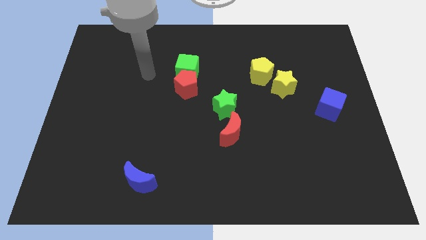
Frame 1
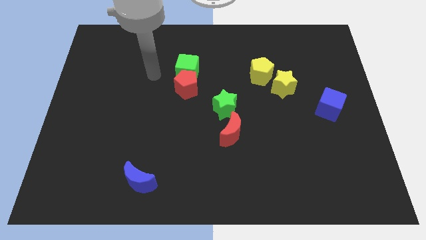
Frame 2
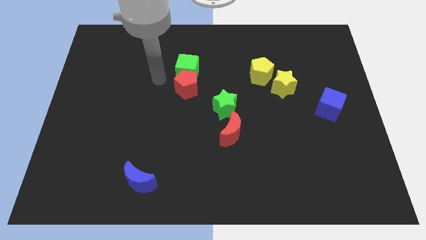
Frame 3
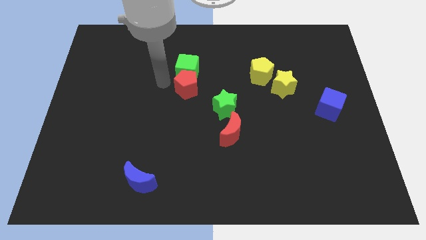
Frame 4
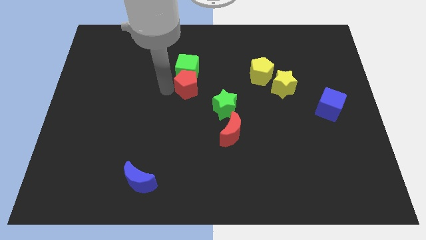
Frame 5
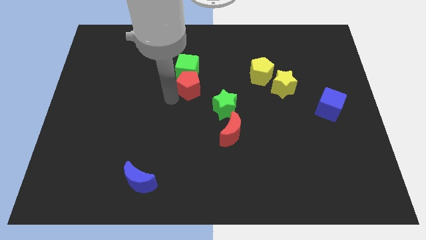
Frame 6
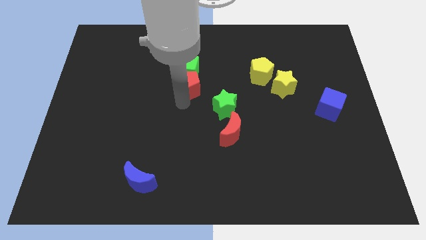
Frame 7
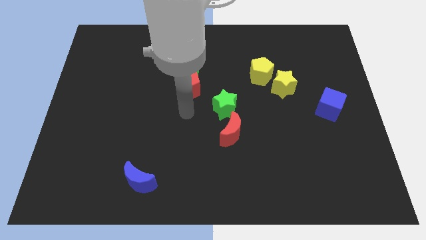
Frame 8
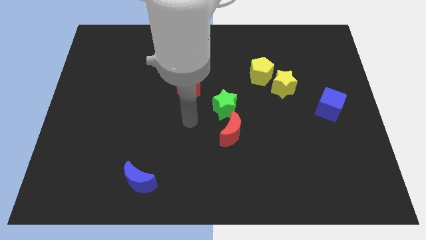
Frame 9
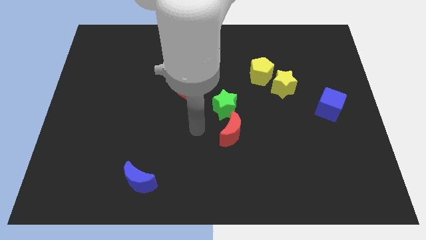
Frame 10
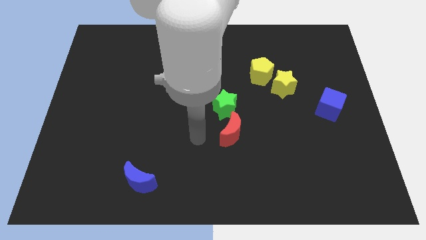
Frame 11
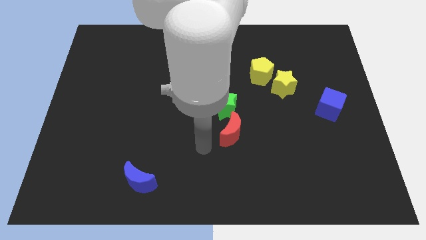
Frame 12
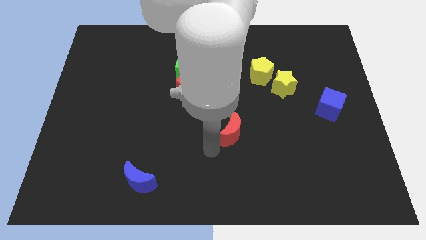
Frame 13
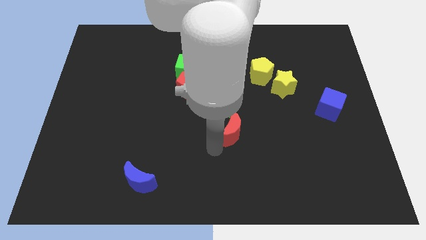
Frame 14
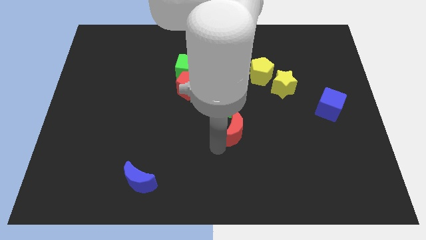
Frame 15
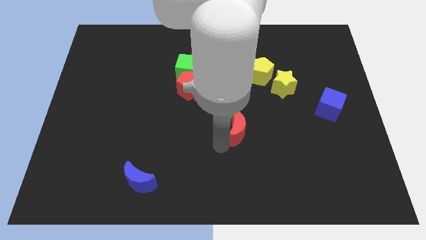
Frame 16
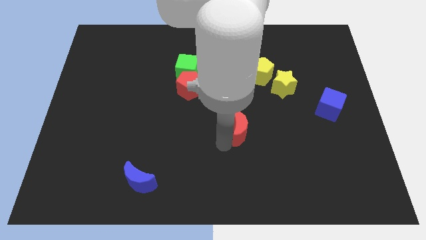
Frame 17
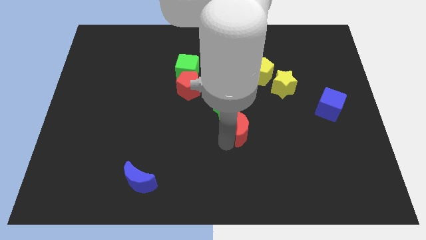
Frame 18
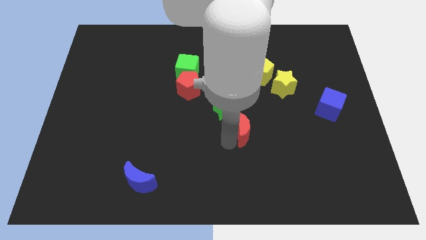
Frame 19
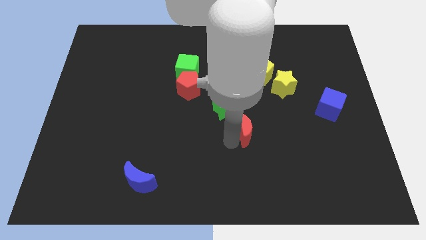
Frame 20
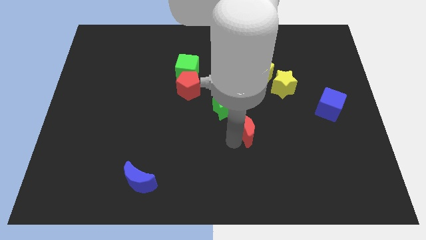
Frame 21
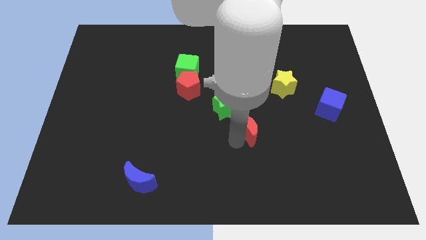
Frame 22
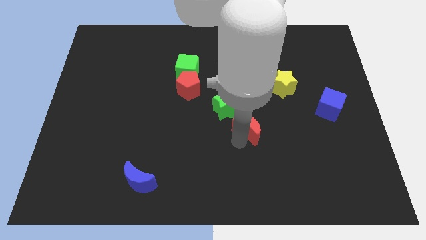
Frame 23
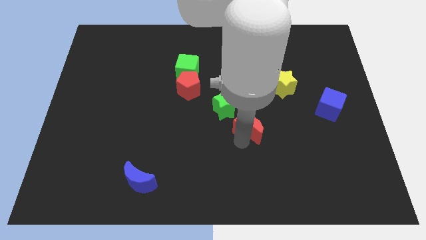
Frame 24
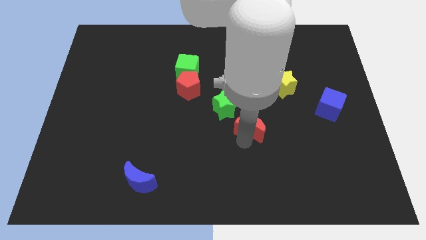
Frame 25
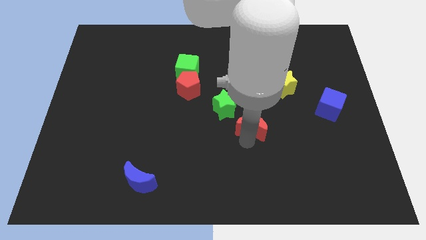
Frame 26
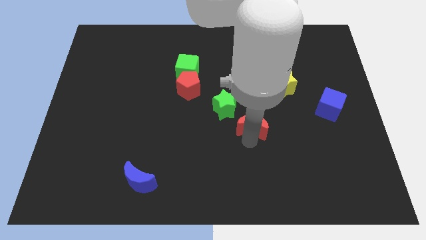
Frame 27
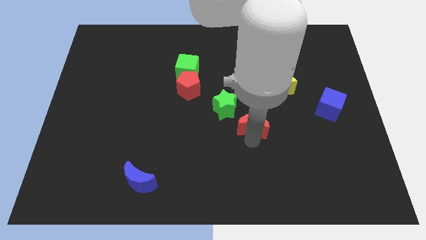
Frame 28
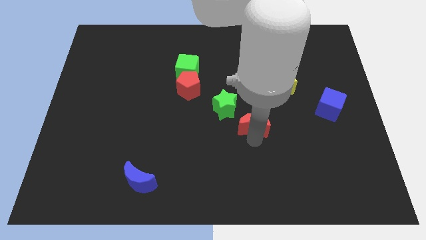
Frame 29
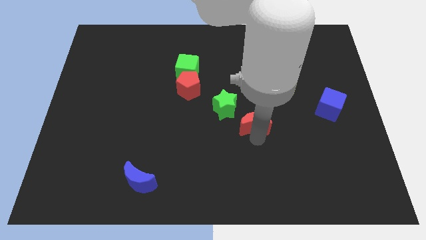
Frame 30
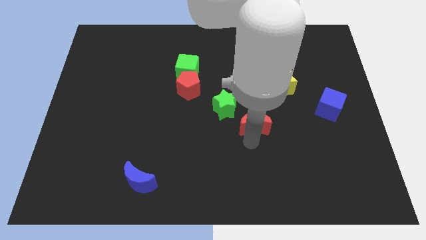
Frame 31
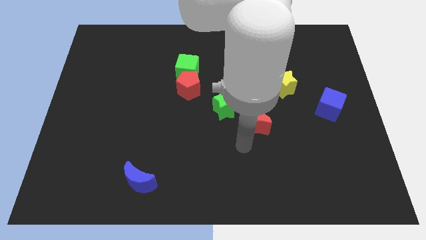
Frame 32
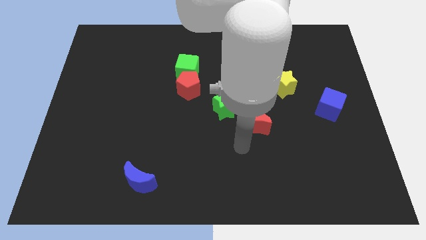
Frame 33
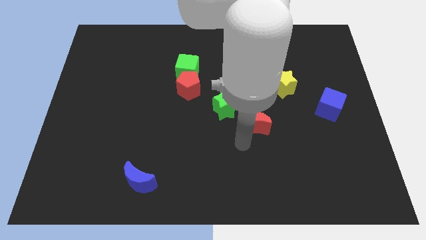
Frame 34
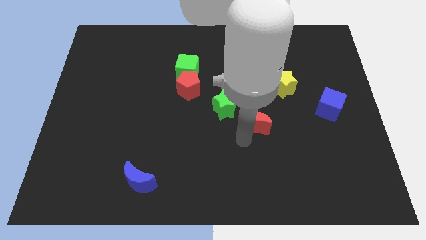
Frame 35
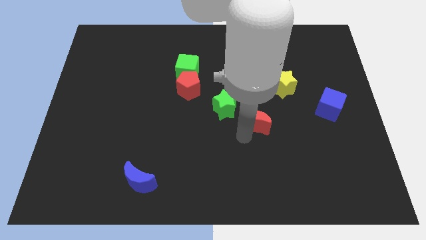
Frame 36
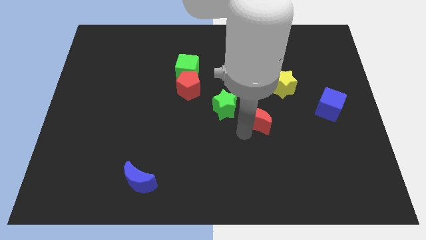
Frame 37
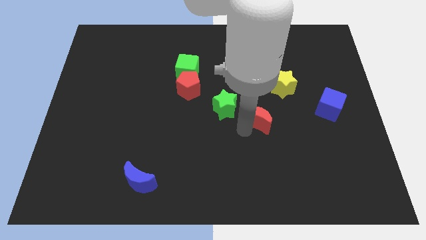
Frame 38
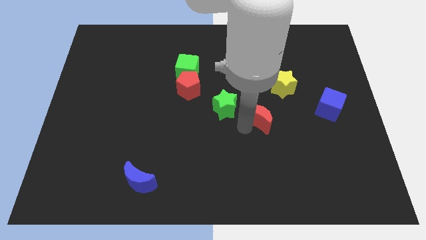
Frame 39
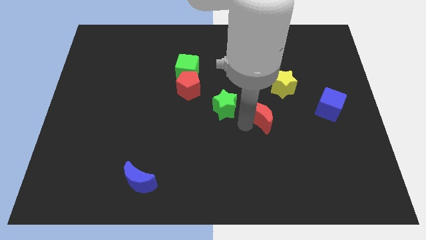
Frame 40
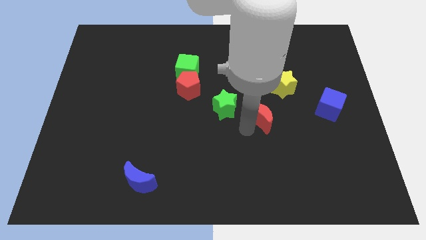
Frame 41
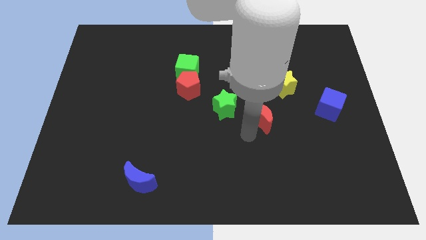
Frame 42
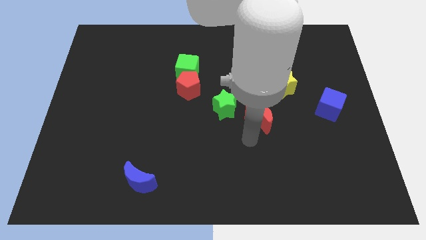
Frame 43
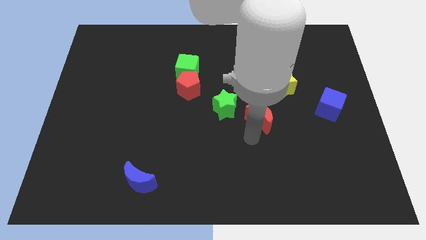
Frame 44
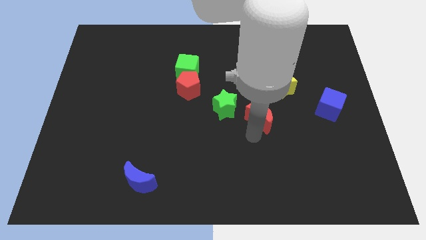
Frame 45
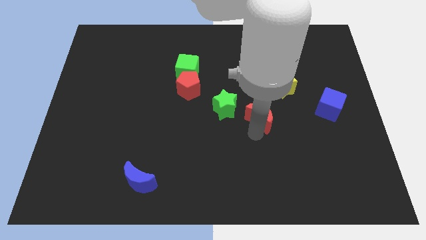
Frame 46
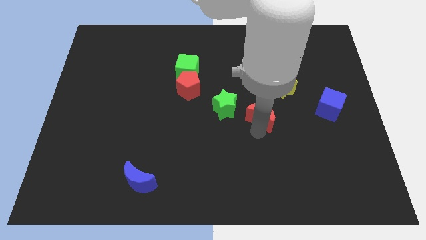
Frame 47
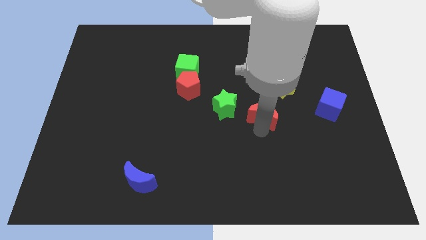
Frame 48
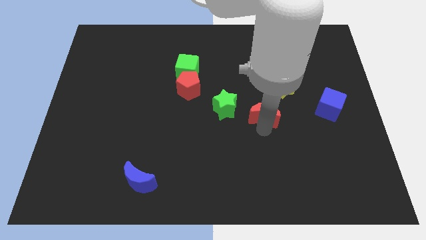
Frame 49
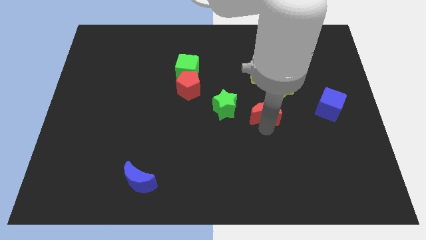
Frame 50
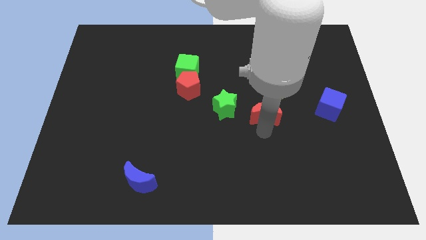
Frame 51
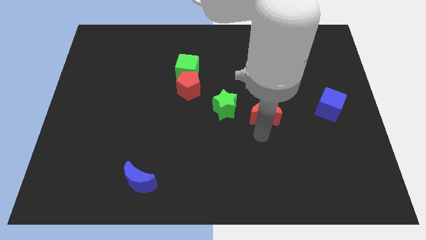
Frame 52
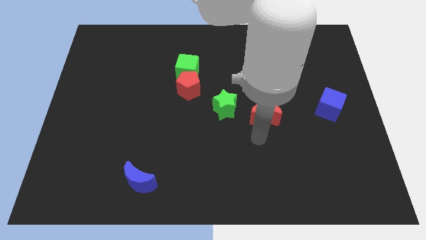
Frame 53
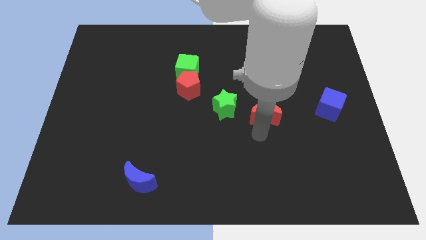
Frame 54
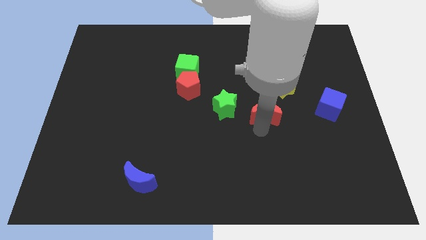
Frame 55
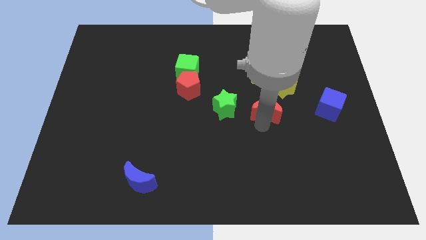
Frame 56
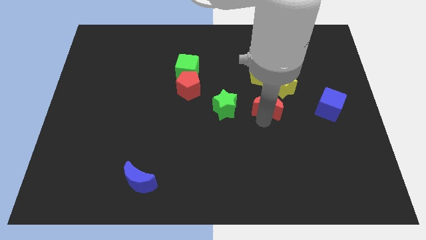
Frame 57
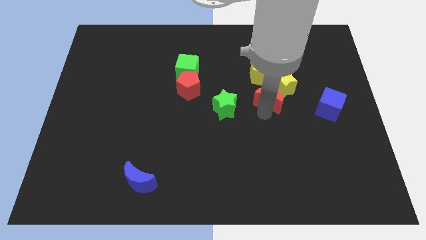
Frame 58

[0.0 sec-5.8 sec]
push the red moon close to the yellow star

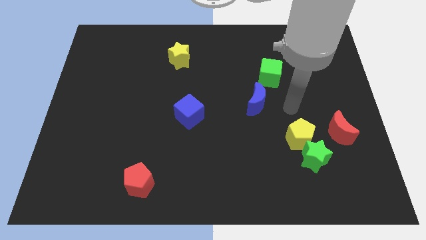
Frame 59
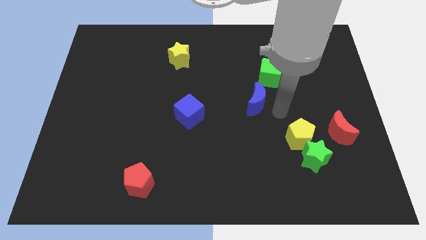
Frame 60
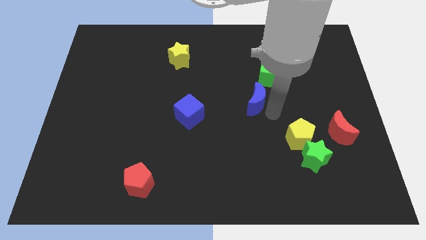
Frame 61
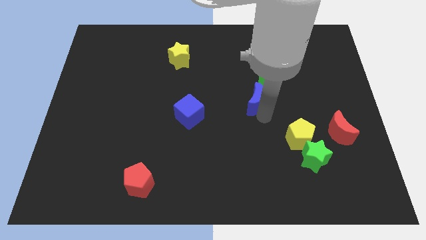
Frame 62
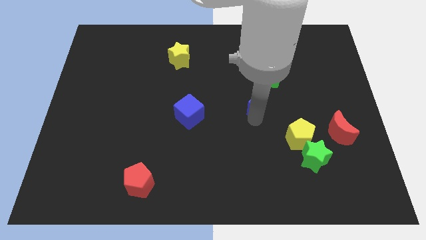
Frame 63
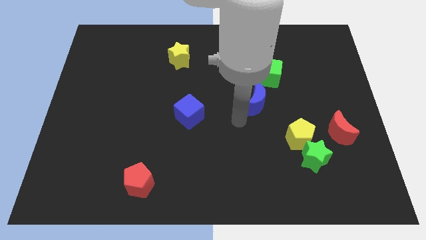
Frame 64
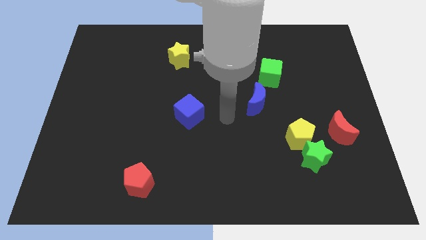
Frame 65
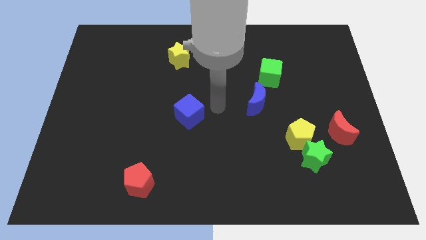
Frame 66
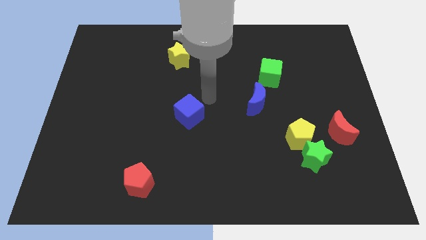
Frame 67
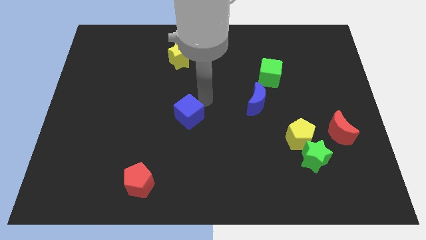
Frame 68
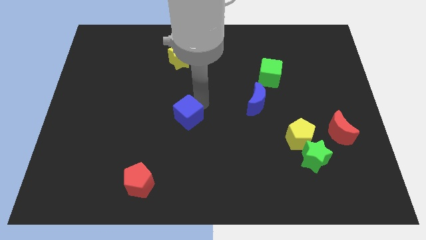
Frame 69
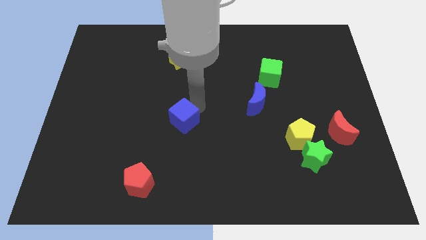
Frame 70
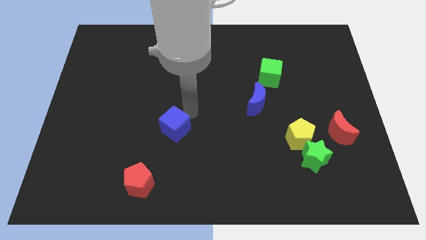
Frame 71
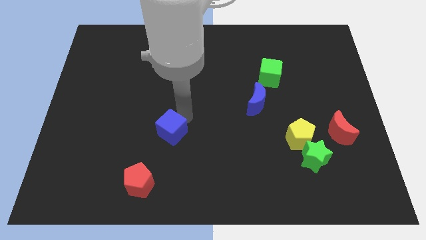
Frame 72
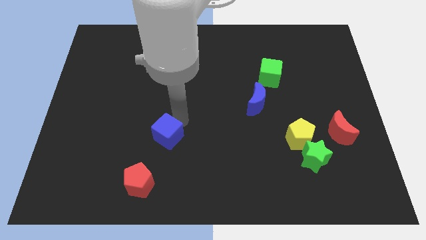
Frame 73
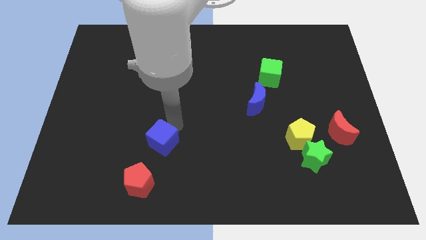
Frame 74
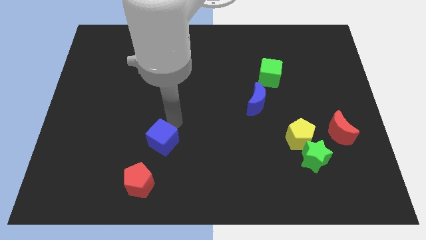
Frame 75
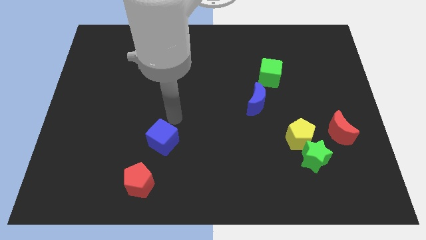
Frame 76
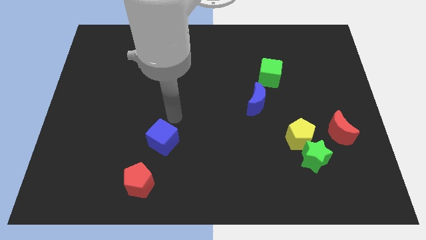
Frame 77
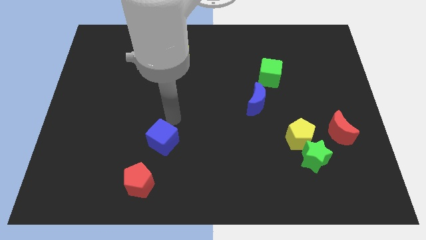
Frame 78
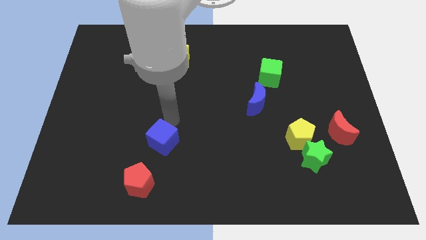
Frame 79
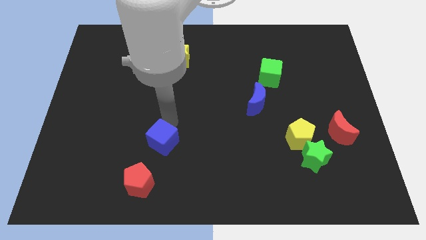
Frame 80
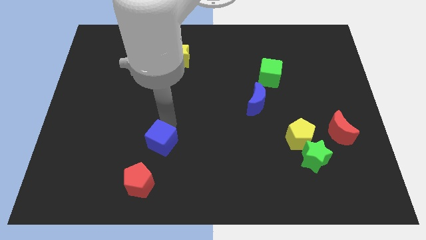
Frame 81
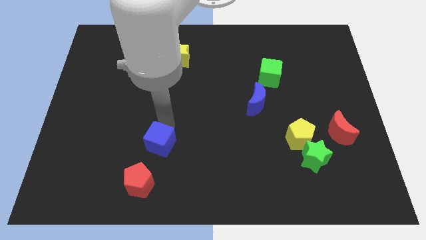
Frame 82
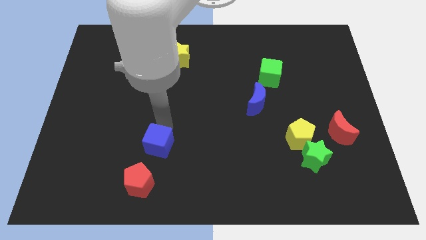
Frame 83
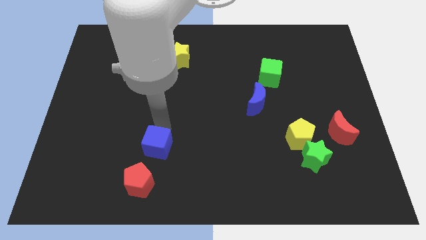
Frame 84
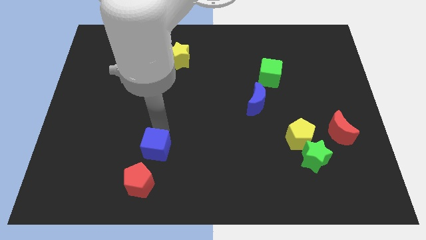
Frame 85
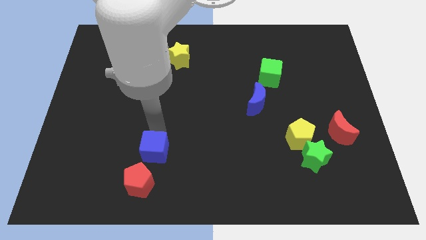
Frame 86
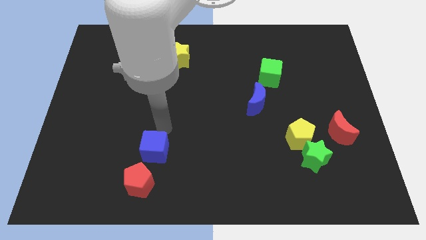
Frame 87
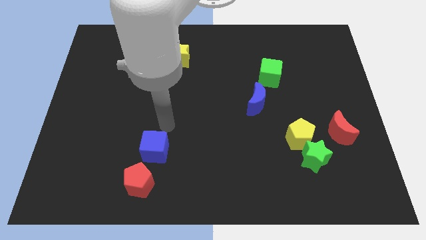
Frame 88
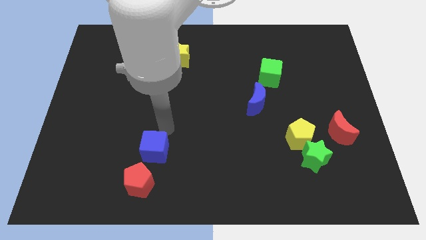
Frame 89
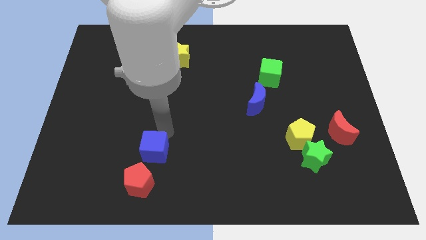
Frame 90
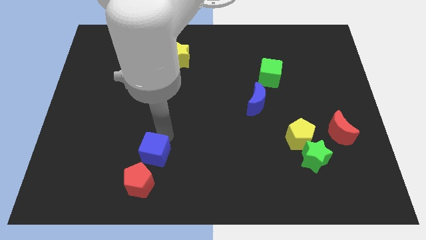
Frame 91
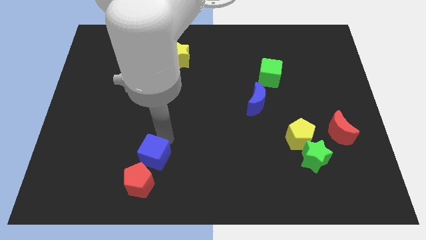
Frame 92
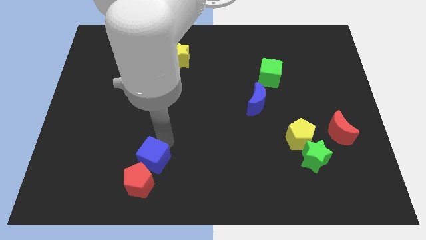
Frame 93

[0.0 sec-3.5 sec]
slide the blue cube to the red pentagon
